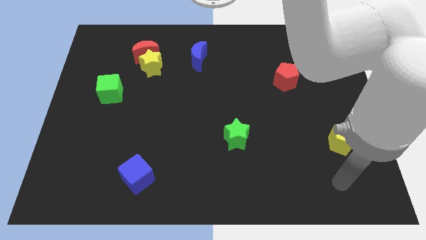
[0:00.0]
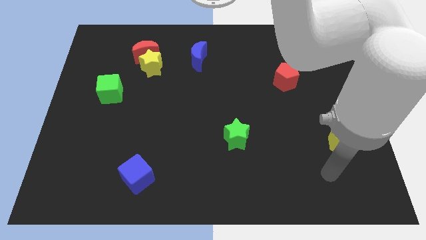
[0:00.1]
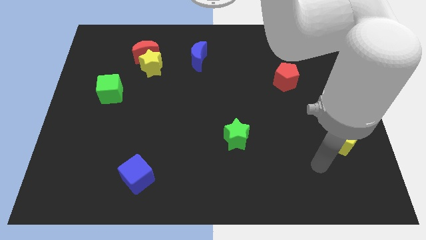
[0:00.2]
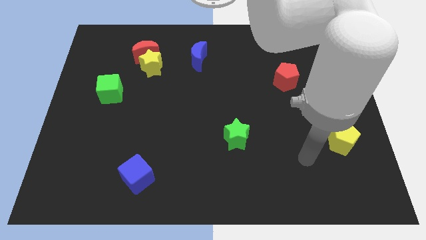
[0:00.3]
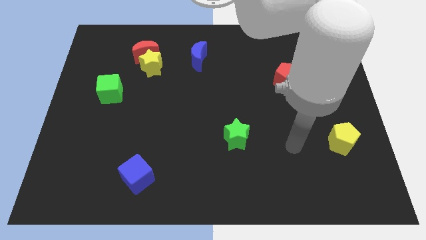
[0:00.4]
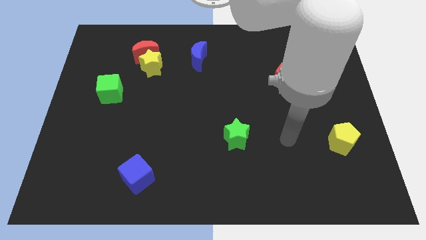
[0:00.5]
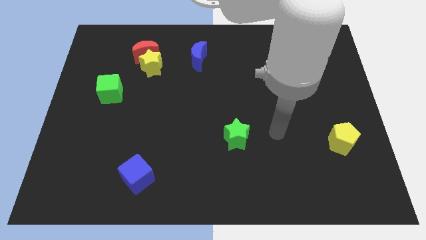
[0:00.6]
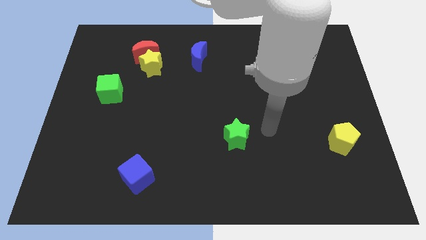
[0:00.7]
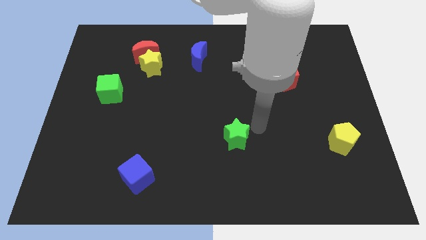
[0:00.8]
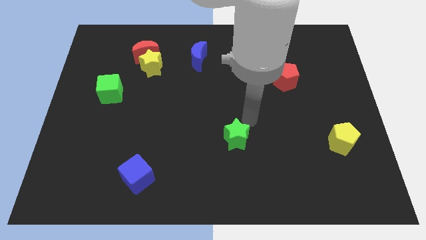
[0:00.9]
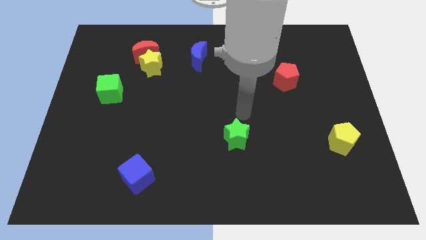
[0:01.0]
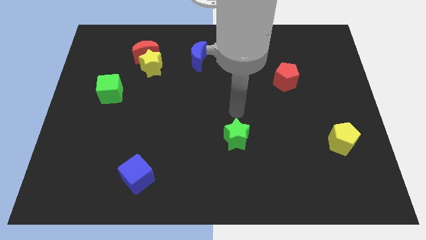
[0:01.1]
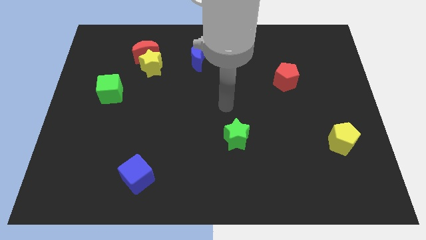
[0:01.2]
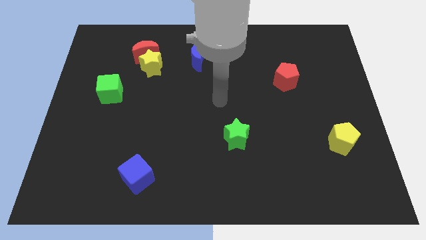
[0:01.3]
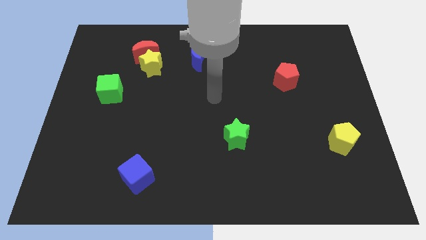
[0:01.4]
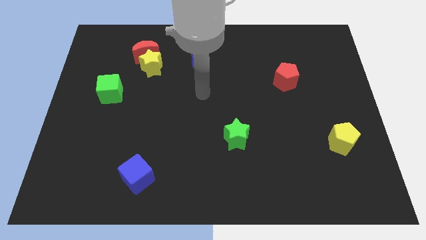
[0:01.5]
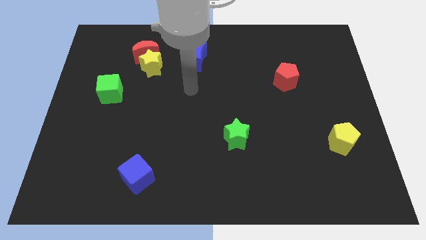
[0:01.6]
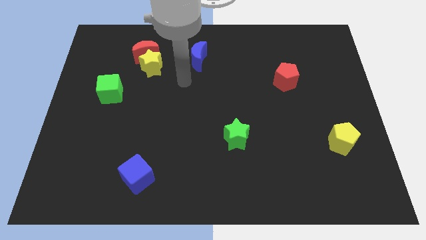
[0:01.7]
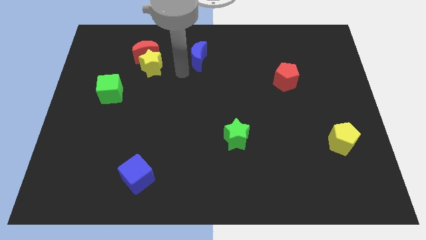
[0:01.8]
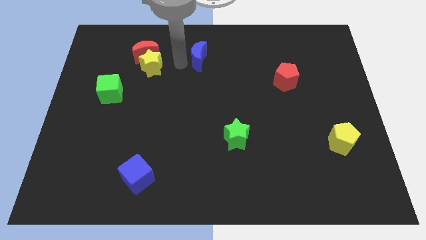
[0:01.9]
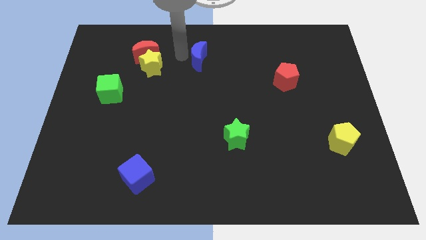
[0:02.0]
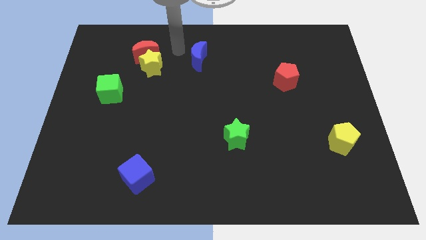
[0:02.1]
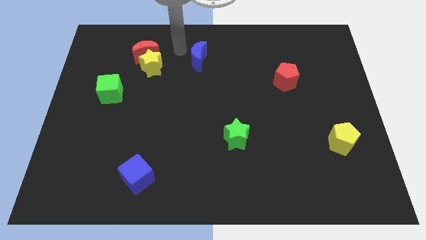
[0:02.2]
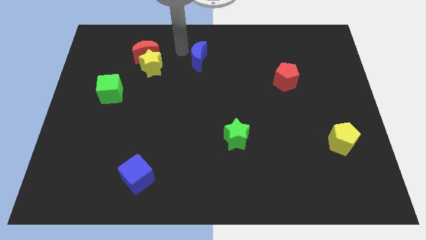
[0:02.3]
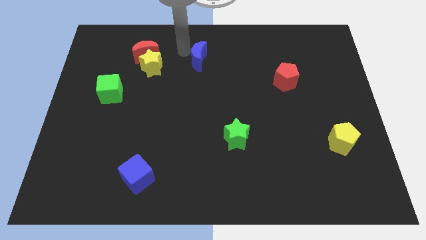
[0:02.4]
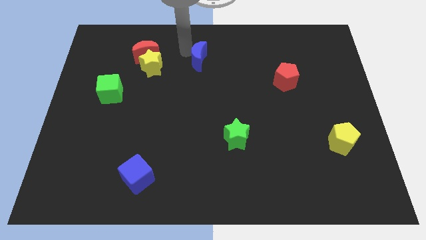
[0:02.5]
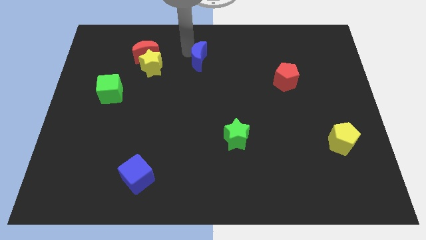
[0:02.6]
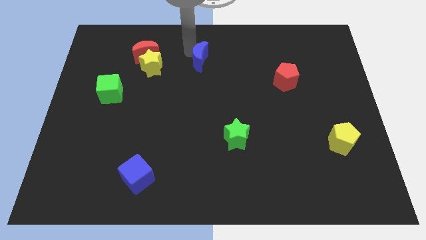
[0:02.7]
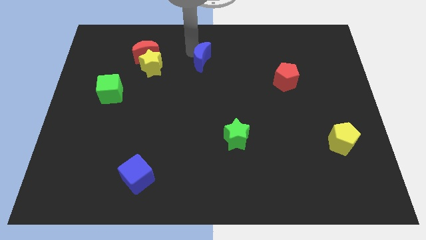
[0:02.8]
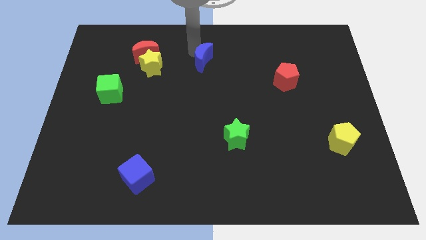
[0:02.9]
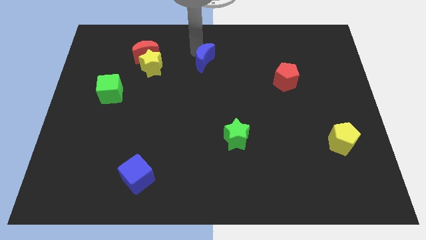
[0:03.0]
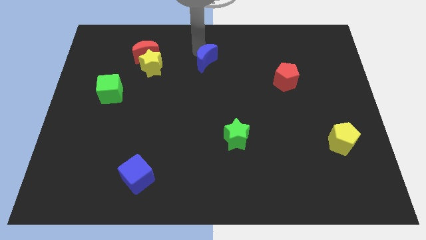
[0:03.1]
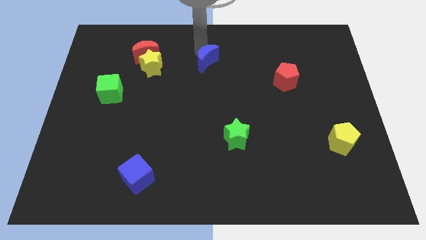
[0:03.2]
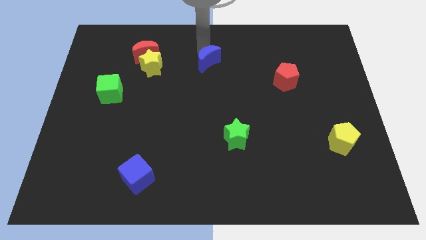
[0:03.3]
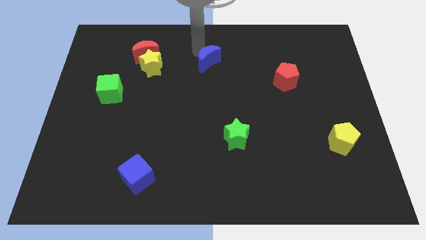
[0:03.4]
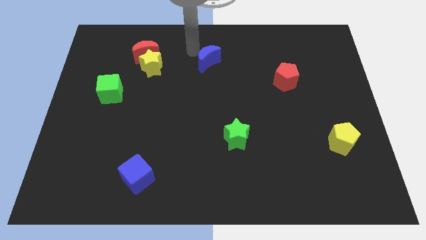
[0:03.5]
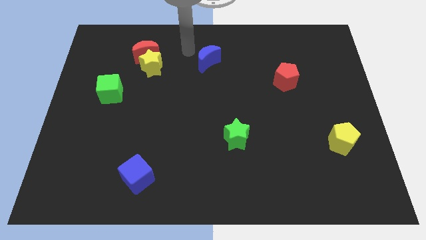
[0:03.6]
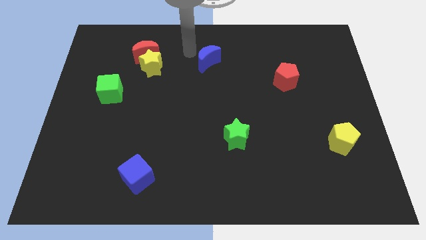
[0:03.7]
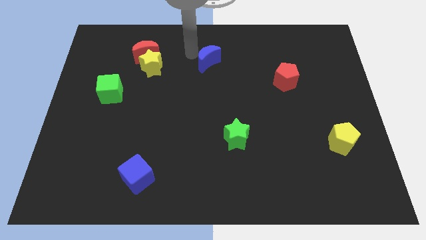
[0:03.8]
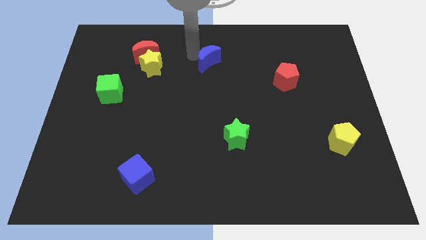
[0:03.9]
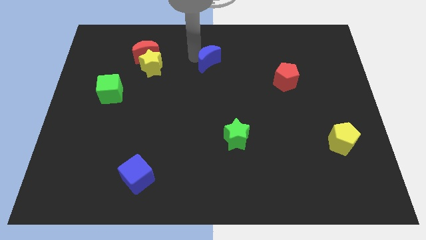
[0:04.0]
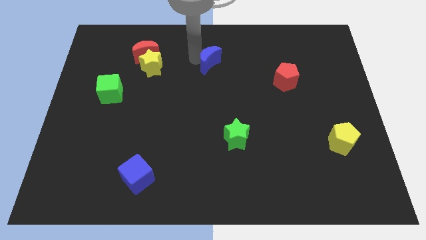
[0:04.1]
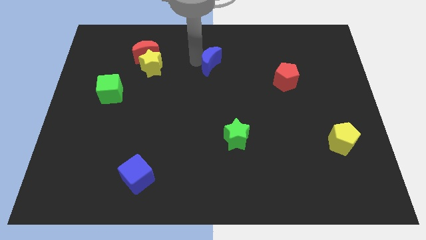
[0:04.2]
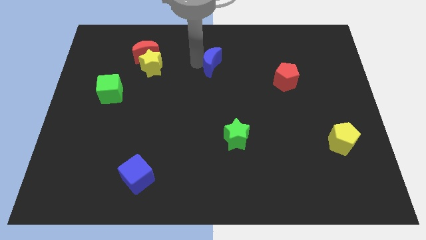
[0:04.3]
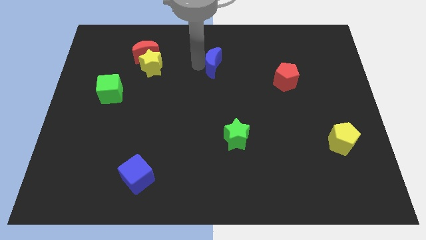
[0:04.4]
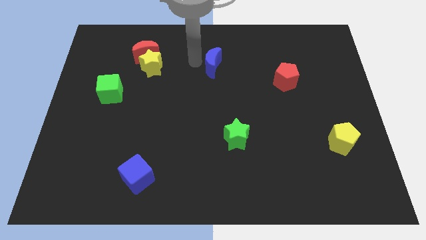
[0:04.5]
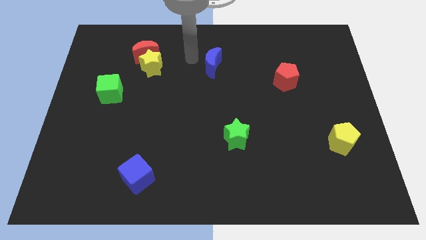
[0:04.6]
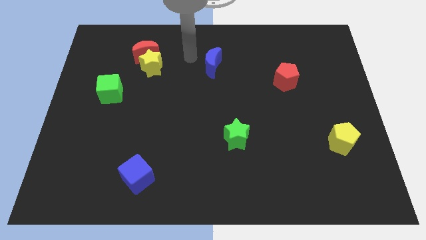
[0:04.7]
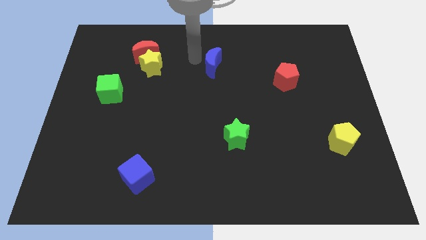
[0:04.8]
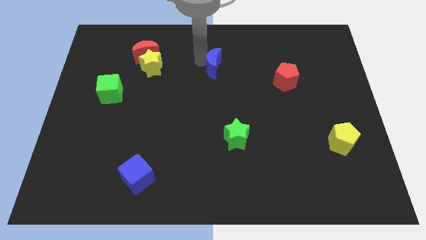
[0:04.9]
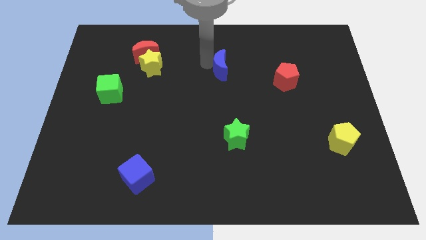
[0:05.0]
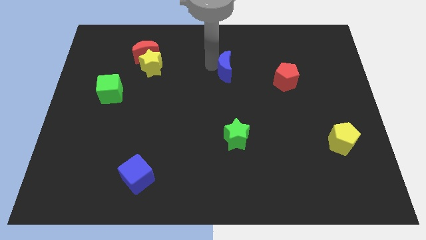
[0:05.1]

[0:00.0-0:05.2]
push the blue moon to the left side of the red pentagon

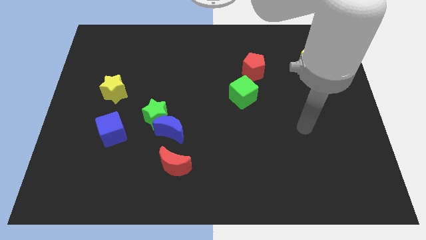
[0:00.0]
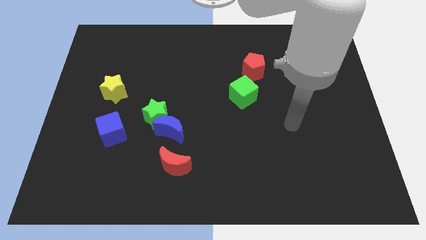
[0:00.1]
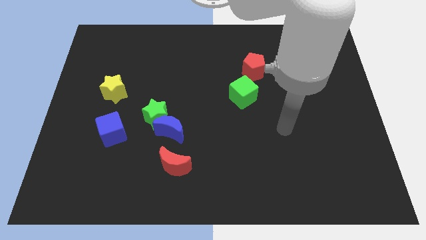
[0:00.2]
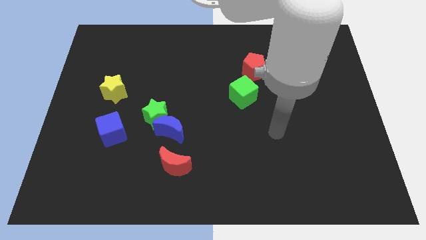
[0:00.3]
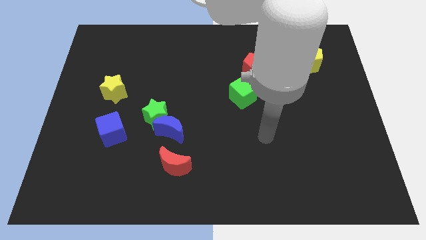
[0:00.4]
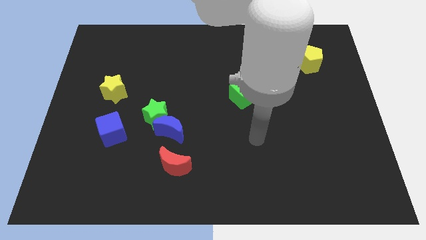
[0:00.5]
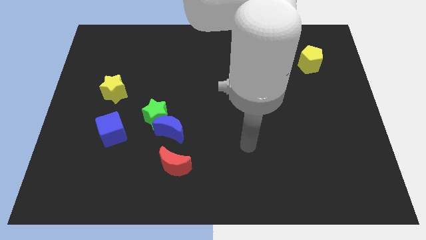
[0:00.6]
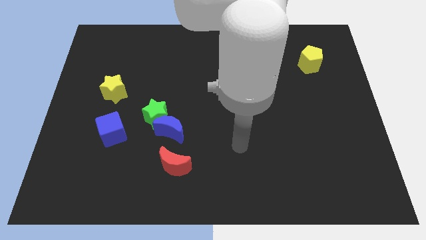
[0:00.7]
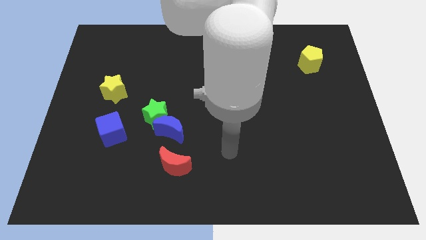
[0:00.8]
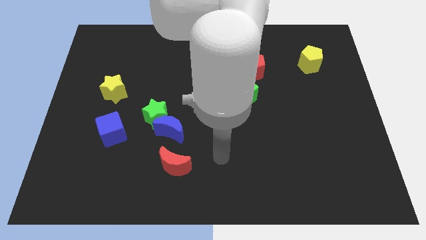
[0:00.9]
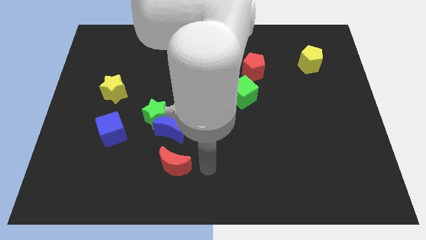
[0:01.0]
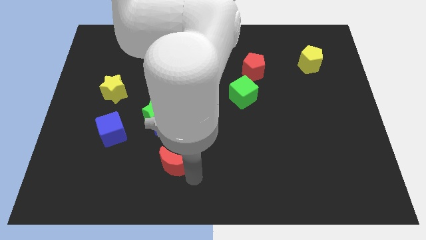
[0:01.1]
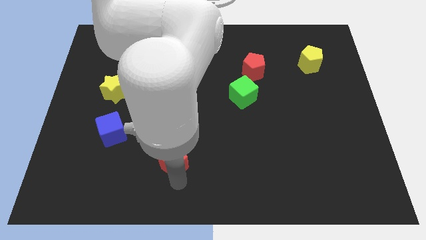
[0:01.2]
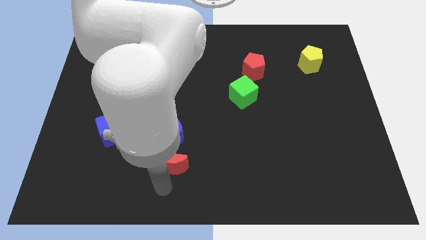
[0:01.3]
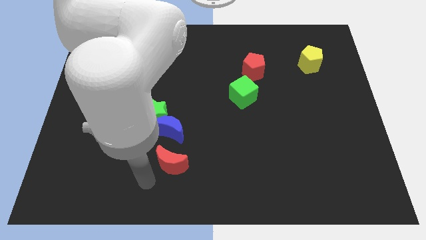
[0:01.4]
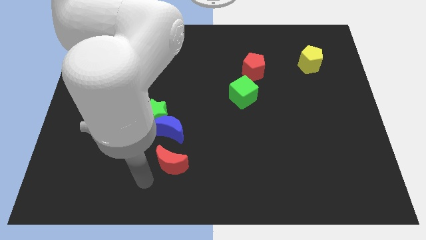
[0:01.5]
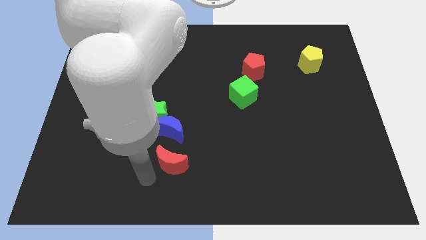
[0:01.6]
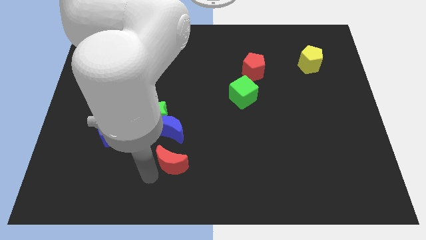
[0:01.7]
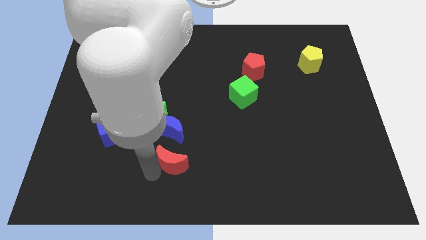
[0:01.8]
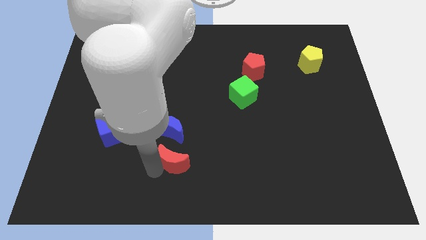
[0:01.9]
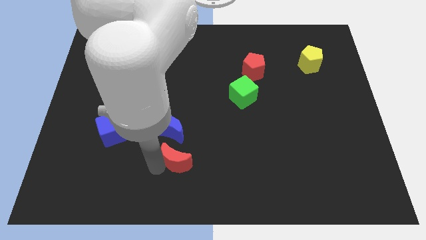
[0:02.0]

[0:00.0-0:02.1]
slide the red moon diagonally down and to the right of the blue moon
